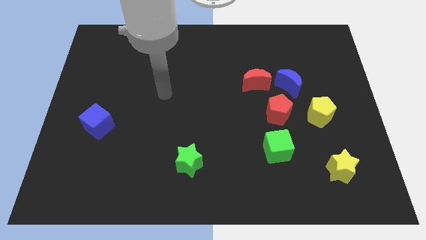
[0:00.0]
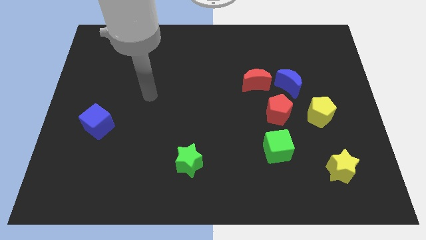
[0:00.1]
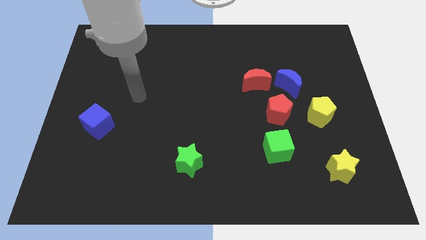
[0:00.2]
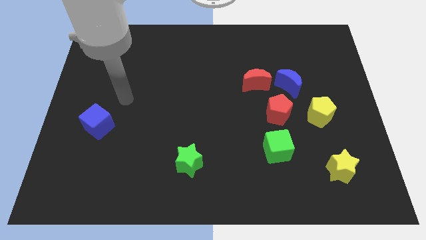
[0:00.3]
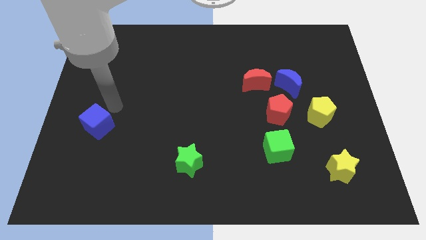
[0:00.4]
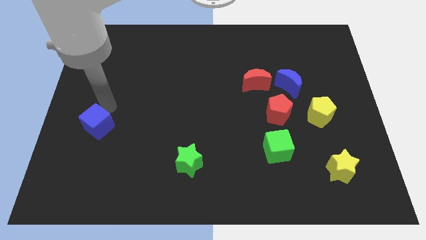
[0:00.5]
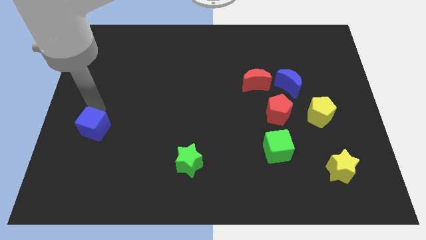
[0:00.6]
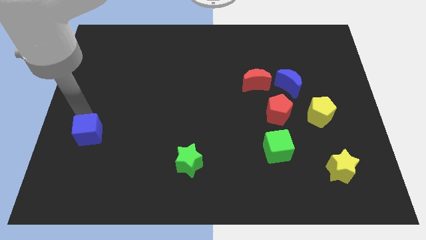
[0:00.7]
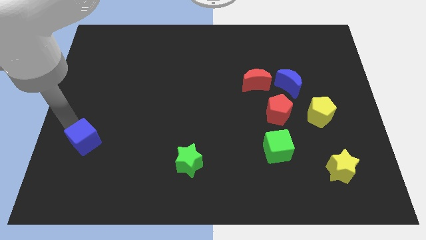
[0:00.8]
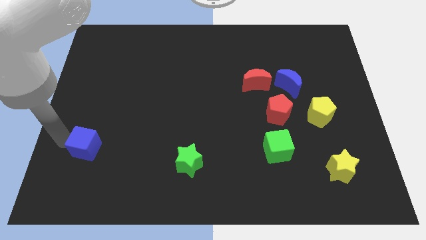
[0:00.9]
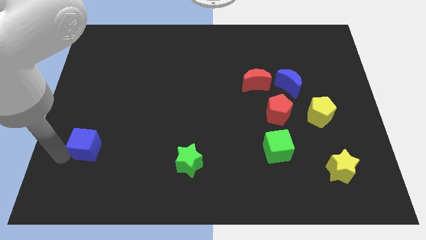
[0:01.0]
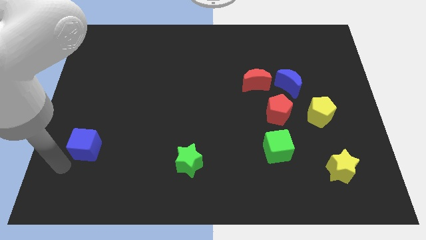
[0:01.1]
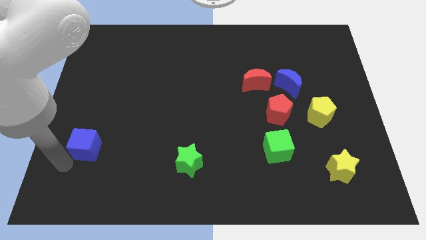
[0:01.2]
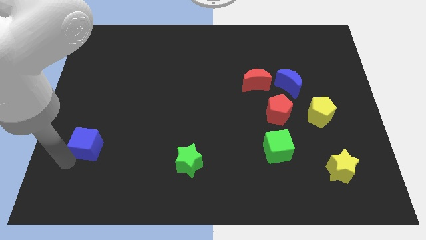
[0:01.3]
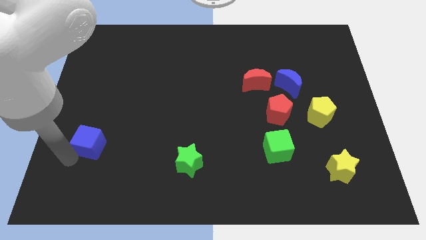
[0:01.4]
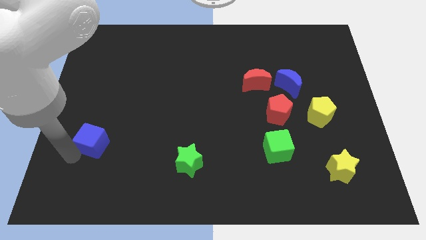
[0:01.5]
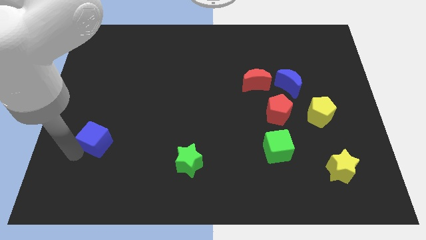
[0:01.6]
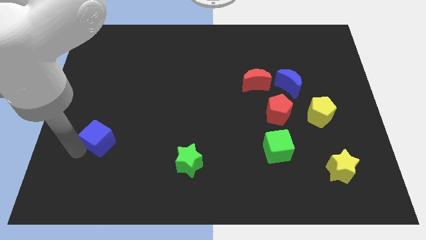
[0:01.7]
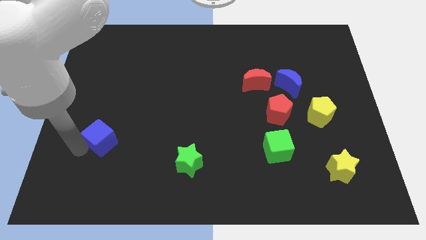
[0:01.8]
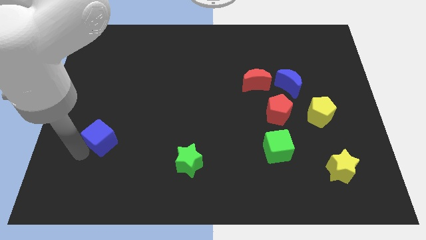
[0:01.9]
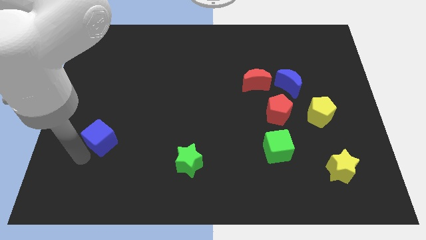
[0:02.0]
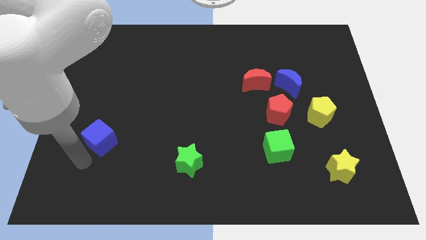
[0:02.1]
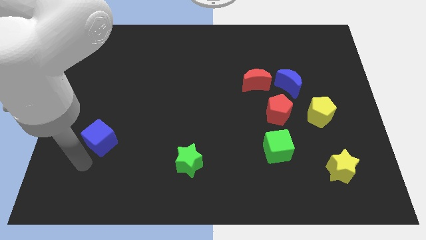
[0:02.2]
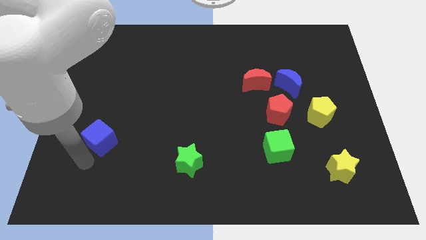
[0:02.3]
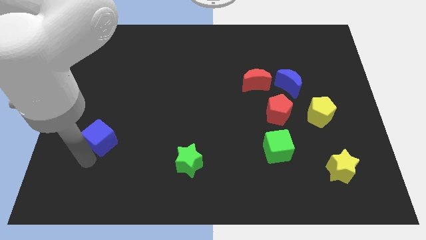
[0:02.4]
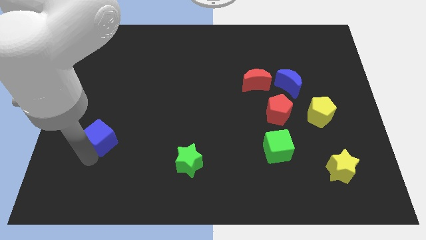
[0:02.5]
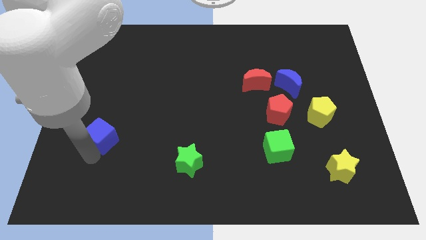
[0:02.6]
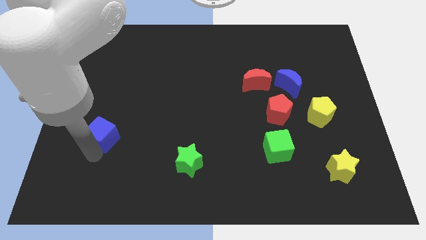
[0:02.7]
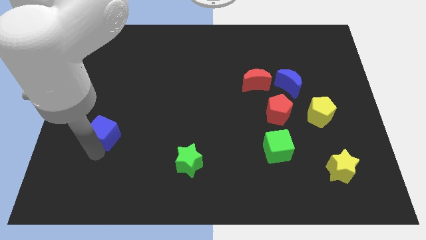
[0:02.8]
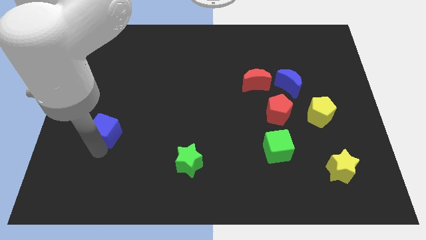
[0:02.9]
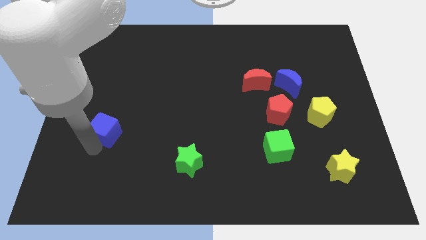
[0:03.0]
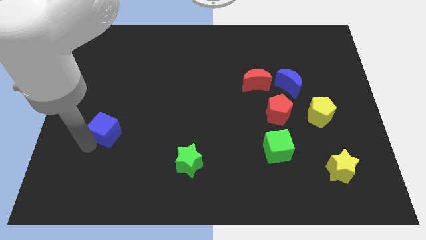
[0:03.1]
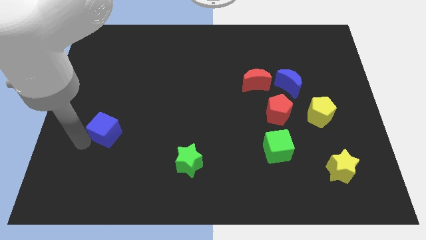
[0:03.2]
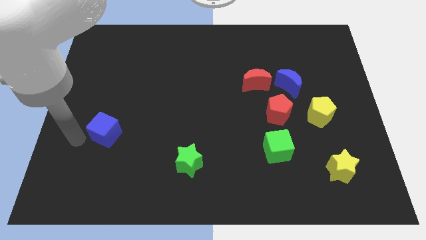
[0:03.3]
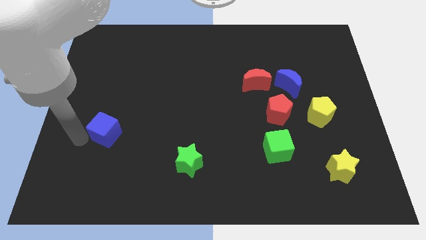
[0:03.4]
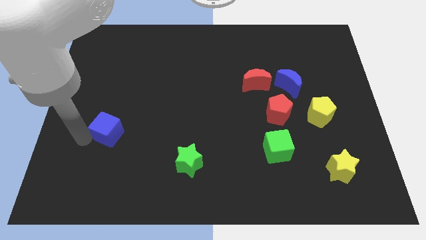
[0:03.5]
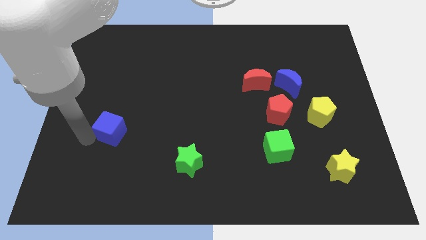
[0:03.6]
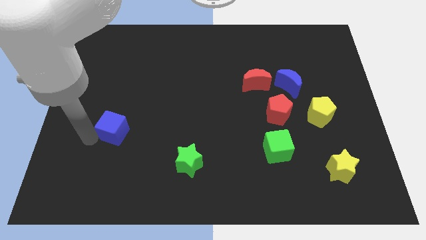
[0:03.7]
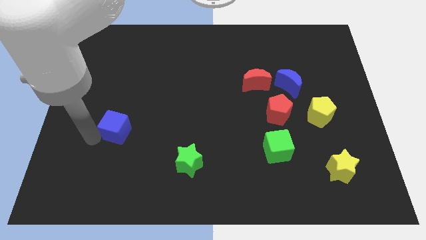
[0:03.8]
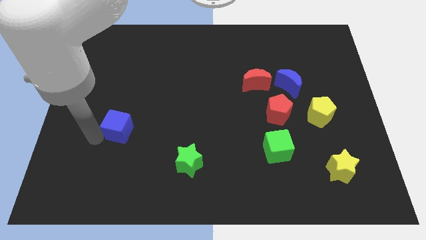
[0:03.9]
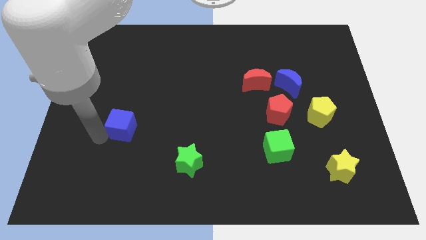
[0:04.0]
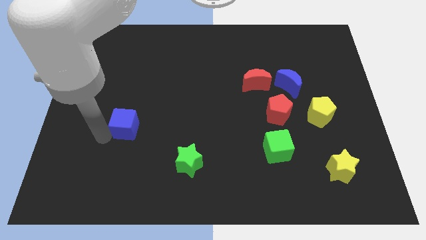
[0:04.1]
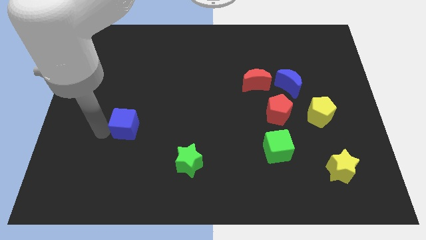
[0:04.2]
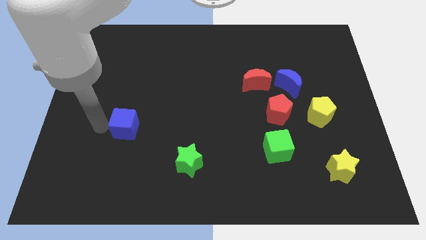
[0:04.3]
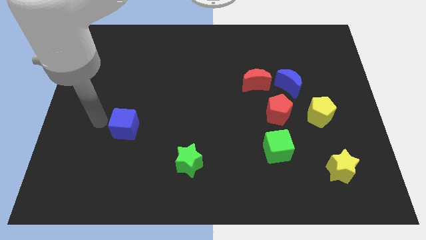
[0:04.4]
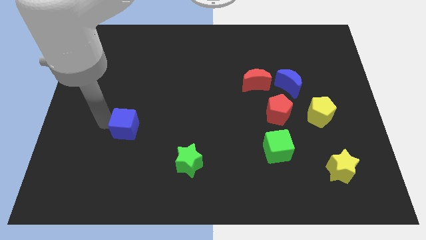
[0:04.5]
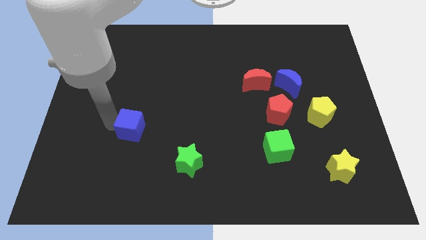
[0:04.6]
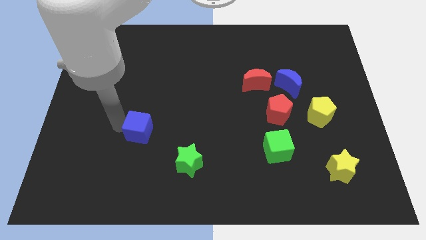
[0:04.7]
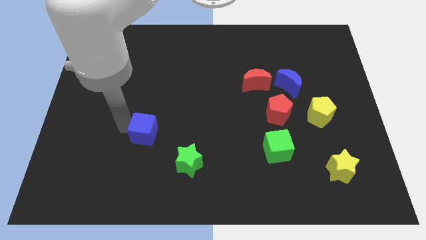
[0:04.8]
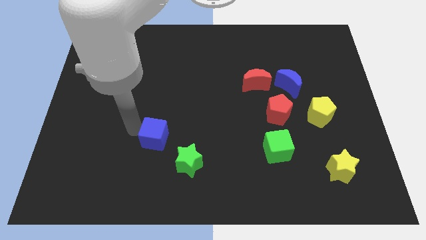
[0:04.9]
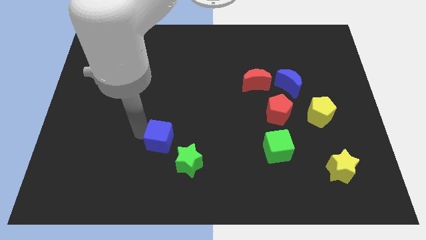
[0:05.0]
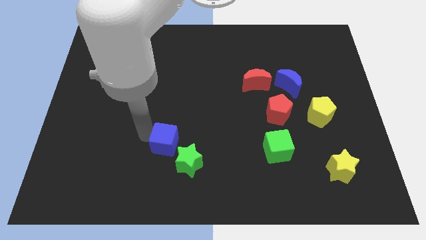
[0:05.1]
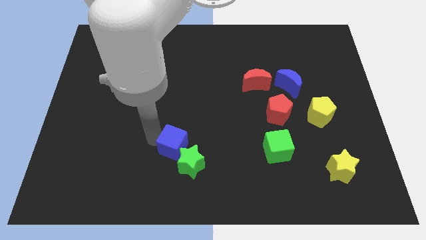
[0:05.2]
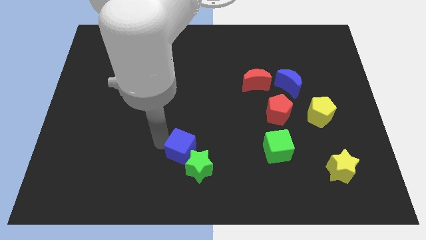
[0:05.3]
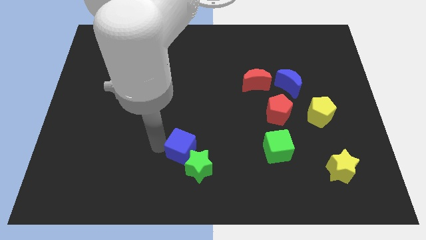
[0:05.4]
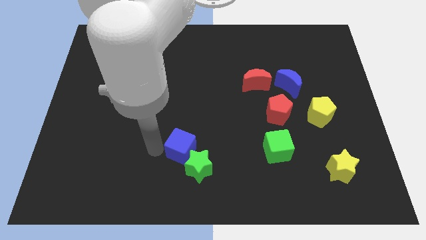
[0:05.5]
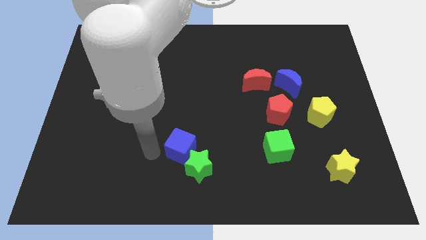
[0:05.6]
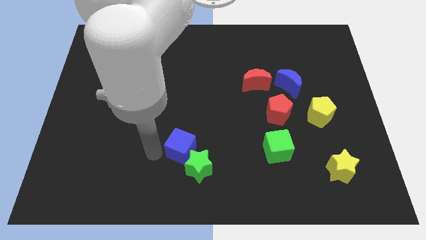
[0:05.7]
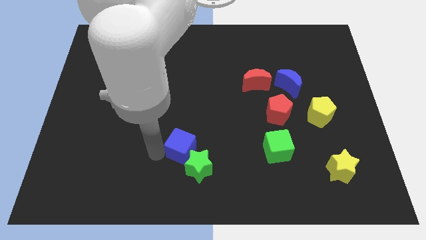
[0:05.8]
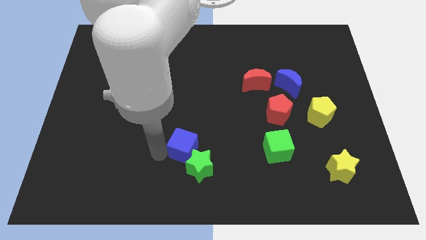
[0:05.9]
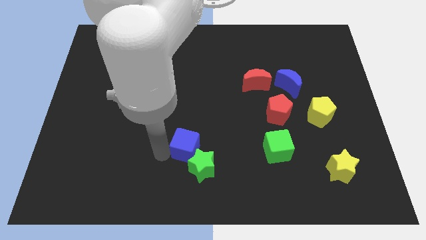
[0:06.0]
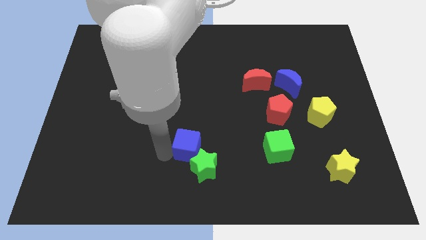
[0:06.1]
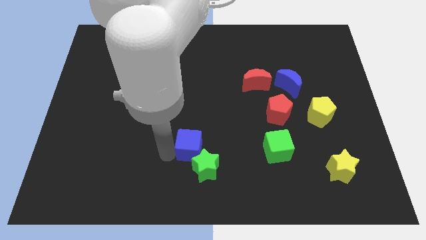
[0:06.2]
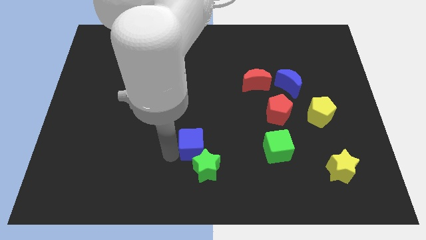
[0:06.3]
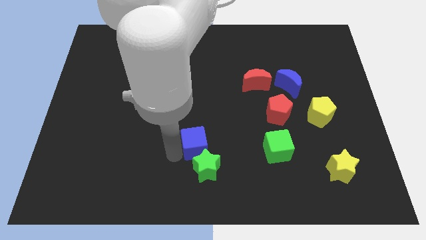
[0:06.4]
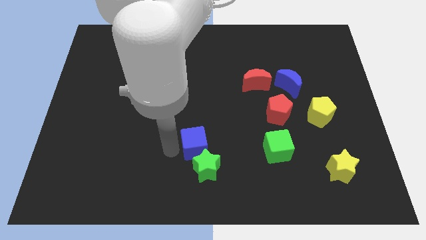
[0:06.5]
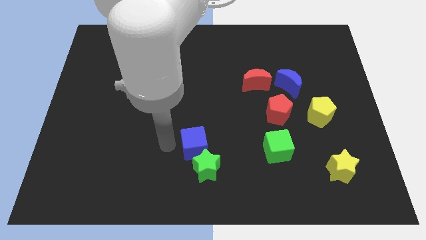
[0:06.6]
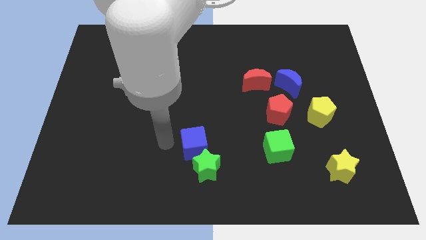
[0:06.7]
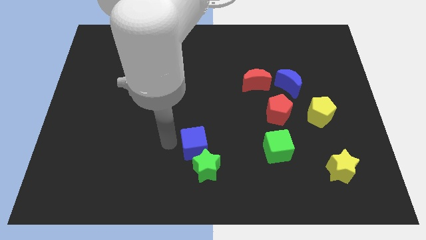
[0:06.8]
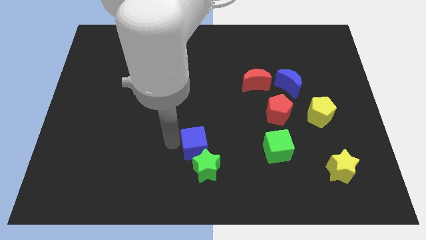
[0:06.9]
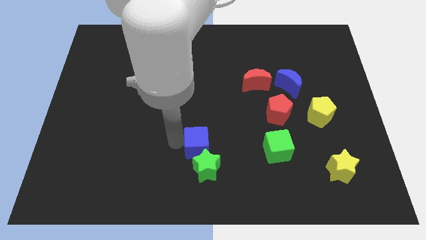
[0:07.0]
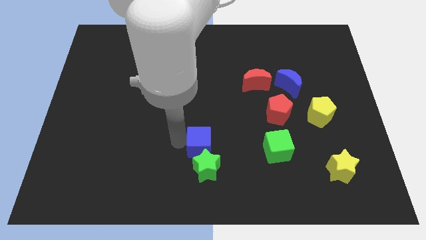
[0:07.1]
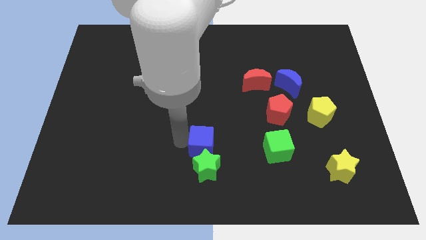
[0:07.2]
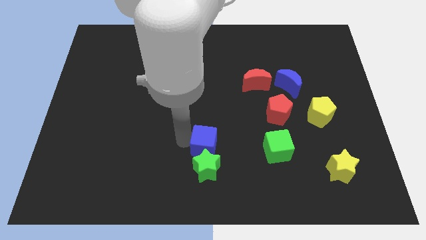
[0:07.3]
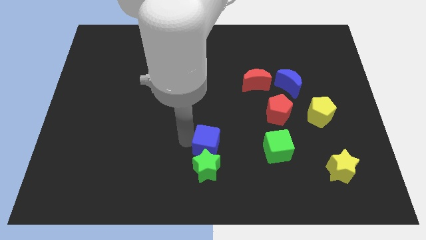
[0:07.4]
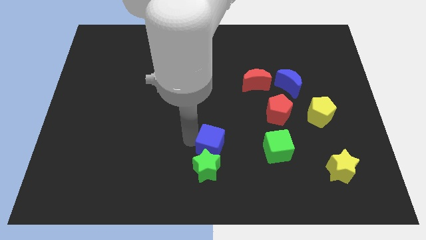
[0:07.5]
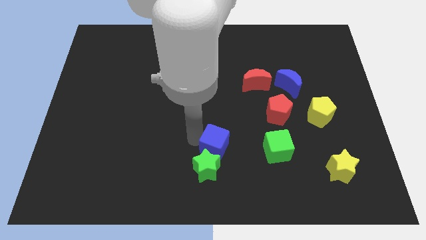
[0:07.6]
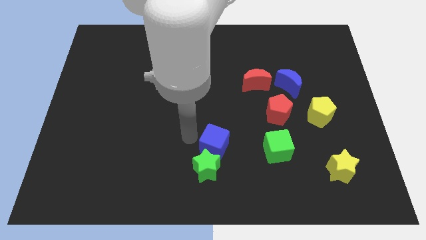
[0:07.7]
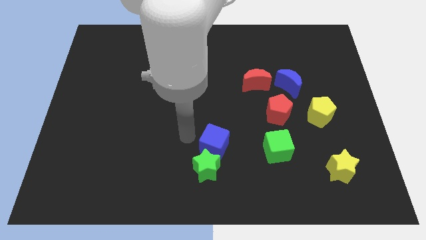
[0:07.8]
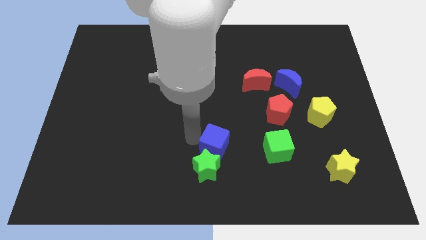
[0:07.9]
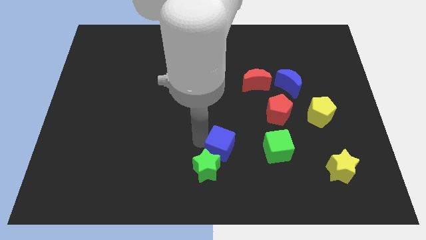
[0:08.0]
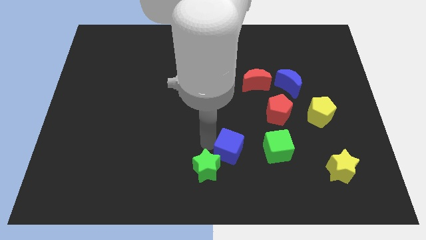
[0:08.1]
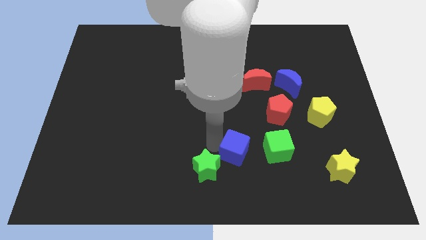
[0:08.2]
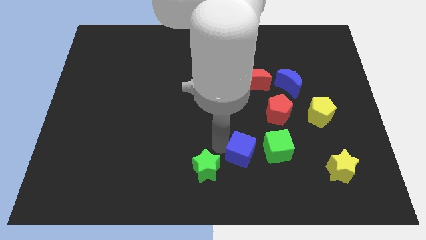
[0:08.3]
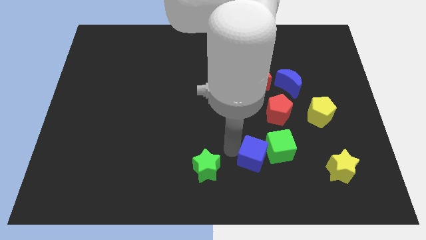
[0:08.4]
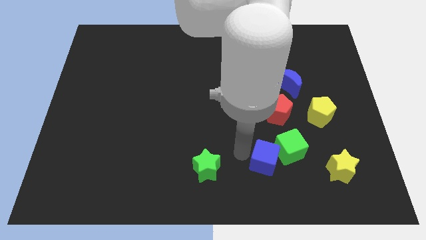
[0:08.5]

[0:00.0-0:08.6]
push the blue cube left of the yellow star
